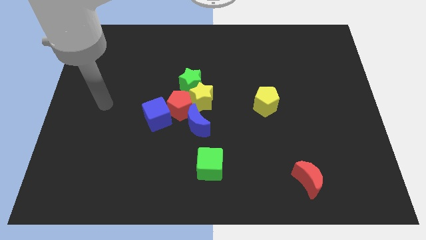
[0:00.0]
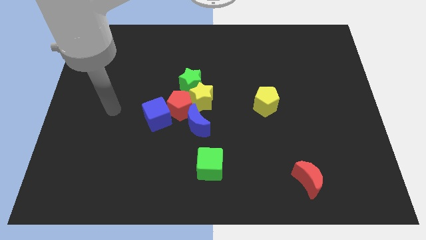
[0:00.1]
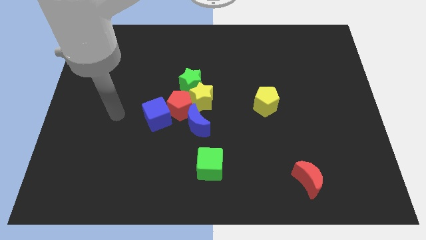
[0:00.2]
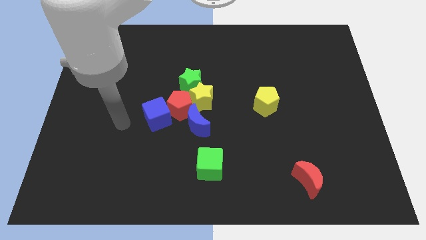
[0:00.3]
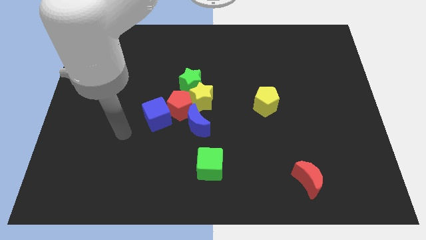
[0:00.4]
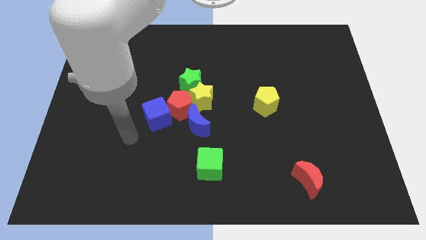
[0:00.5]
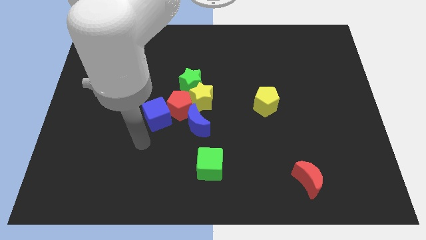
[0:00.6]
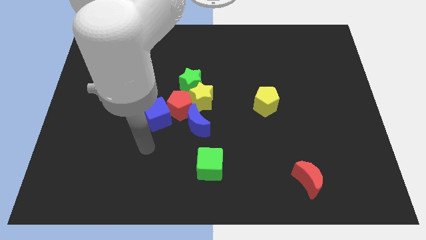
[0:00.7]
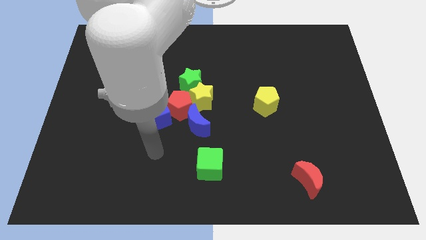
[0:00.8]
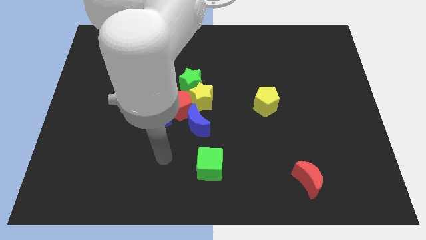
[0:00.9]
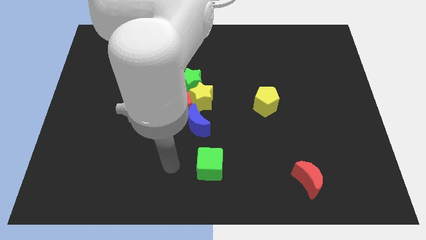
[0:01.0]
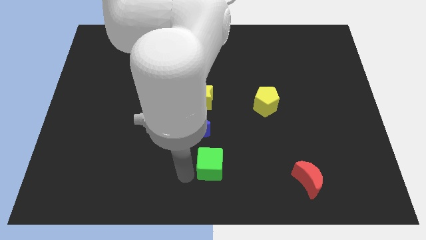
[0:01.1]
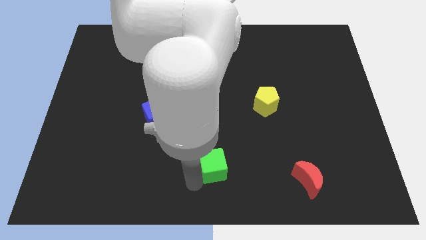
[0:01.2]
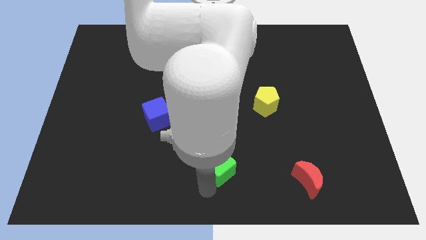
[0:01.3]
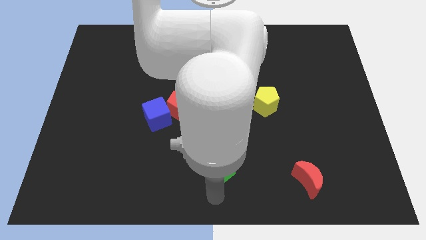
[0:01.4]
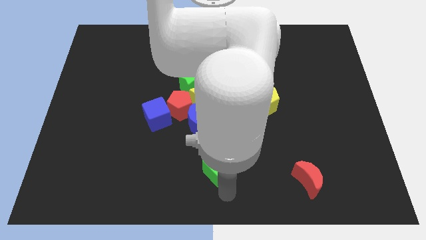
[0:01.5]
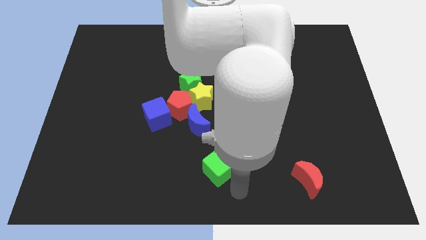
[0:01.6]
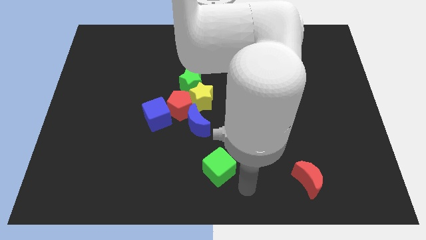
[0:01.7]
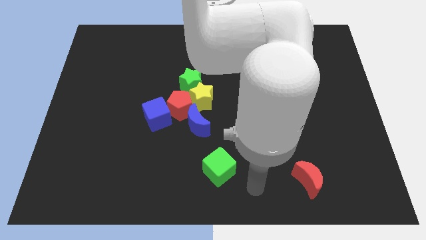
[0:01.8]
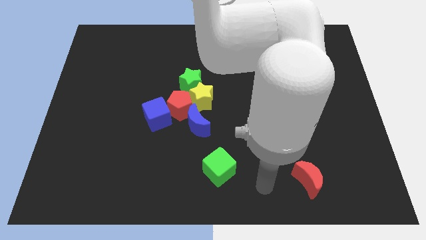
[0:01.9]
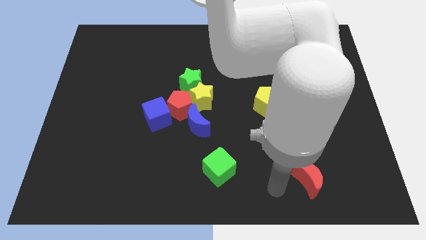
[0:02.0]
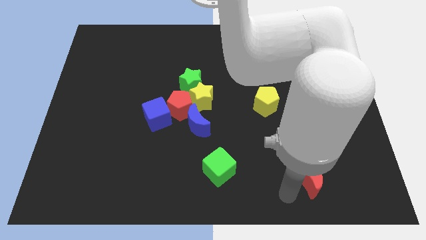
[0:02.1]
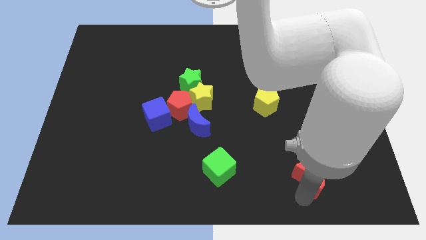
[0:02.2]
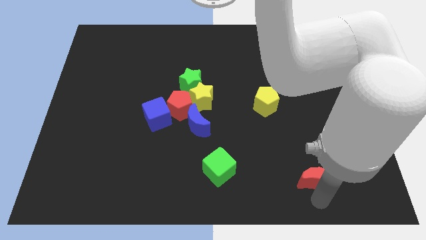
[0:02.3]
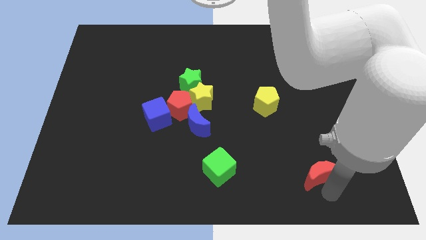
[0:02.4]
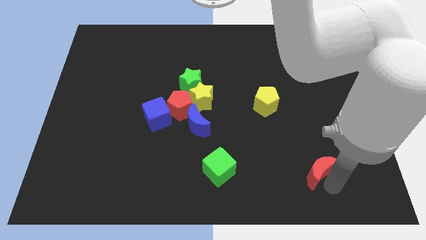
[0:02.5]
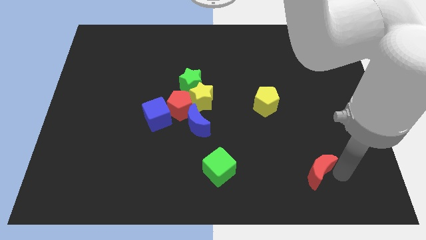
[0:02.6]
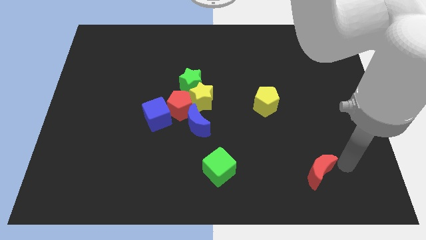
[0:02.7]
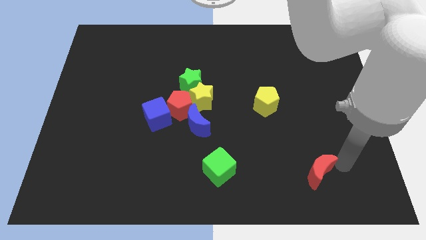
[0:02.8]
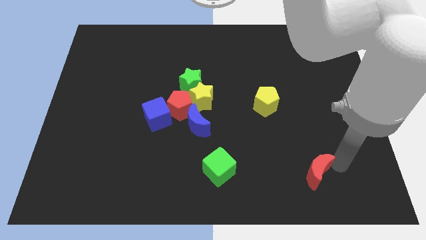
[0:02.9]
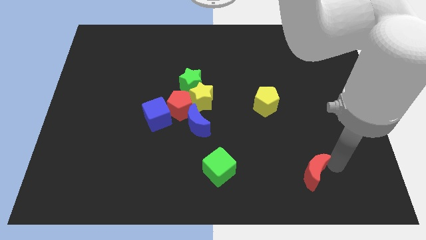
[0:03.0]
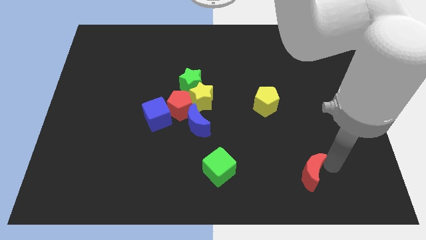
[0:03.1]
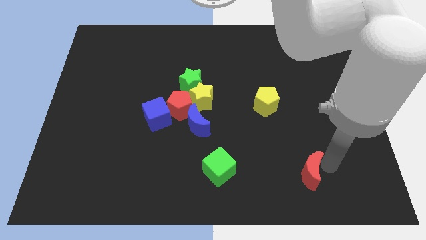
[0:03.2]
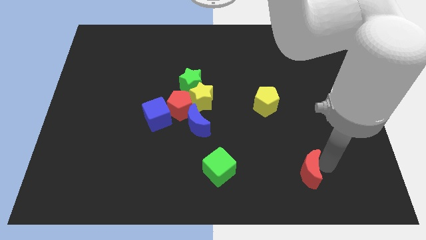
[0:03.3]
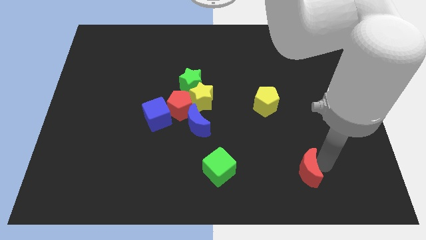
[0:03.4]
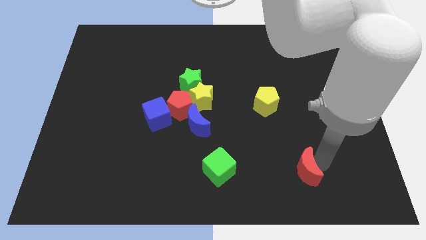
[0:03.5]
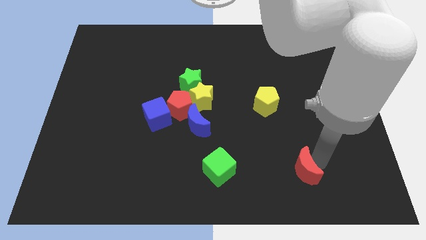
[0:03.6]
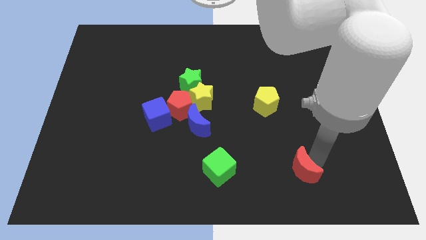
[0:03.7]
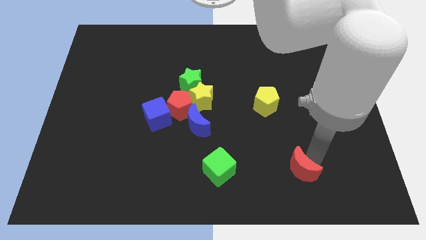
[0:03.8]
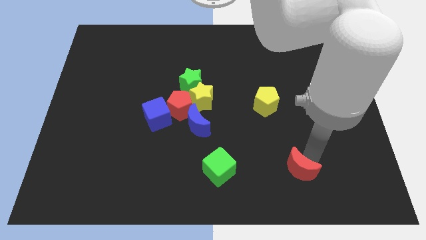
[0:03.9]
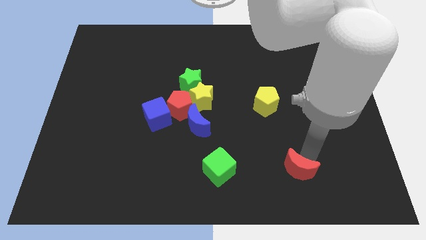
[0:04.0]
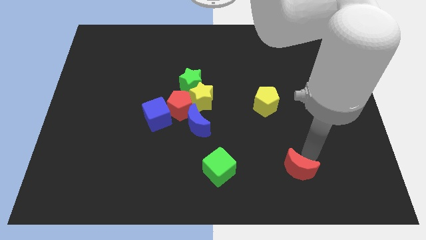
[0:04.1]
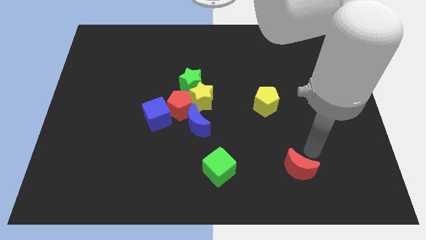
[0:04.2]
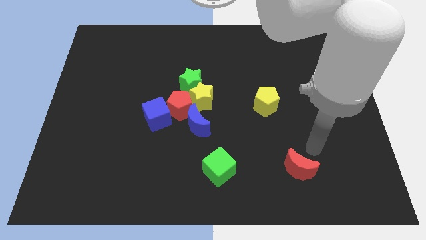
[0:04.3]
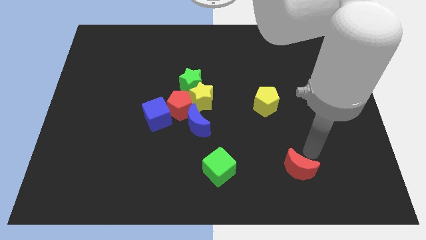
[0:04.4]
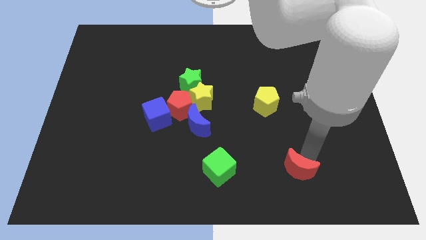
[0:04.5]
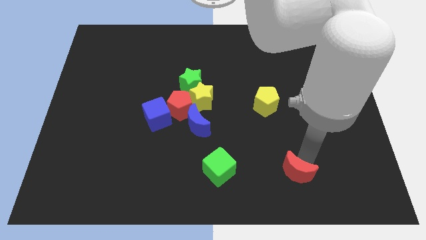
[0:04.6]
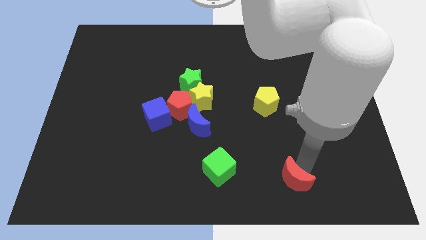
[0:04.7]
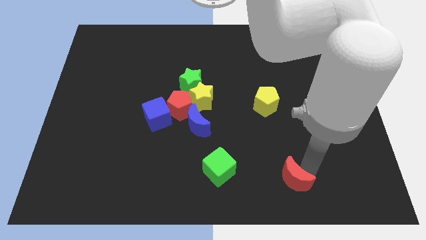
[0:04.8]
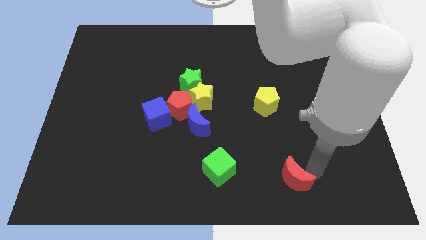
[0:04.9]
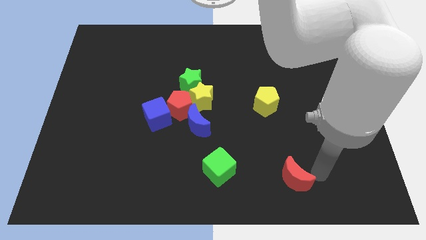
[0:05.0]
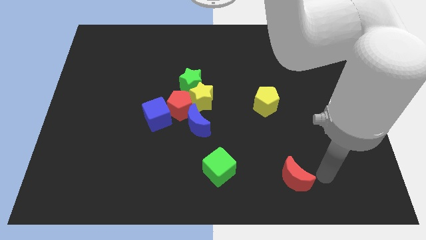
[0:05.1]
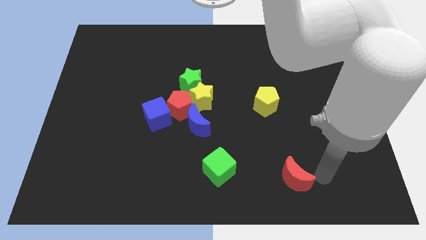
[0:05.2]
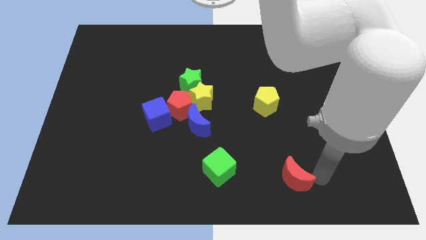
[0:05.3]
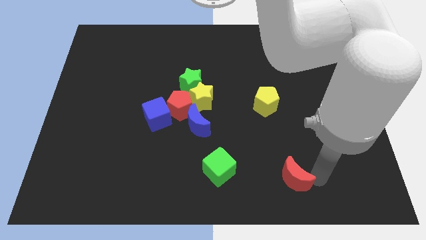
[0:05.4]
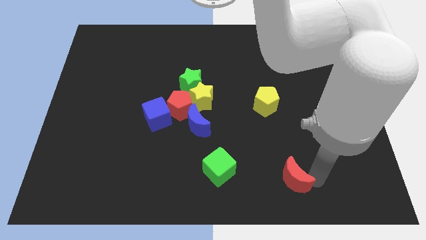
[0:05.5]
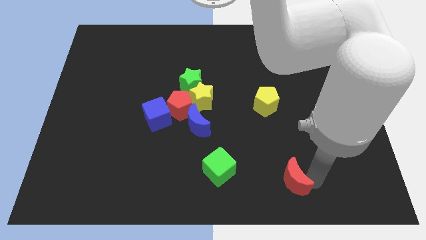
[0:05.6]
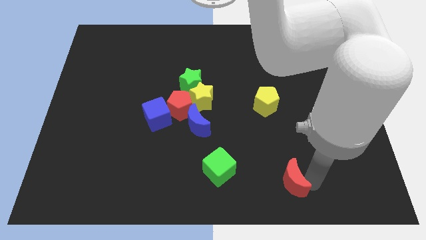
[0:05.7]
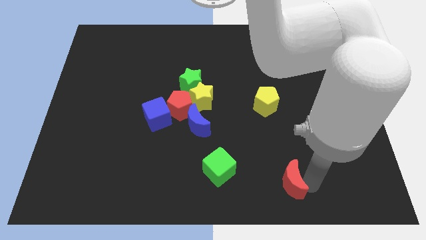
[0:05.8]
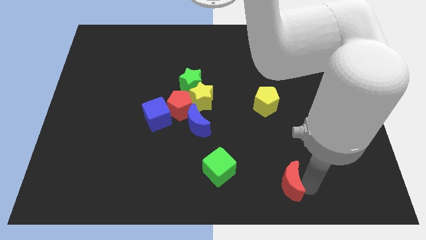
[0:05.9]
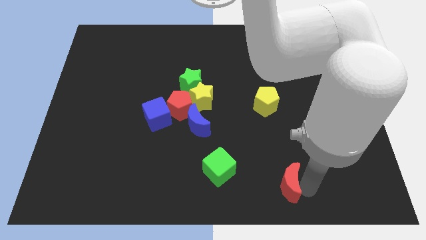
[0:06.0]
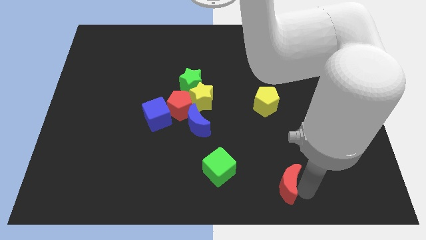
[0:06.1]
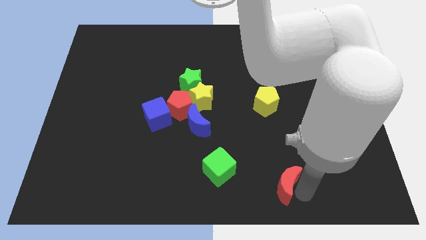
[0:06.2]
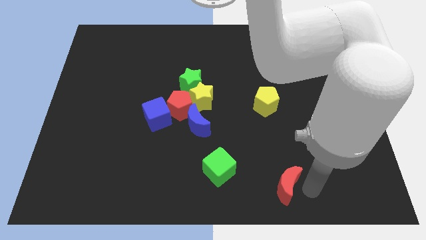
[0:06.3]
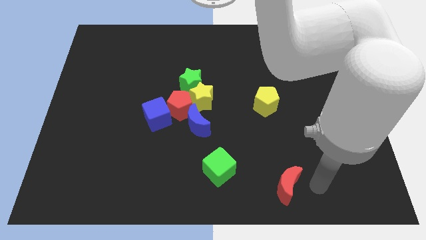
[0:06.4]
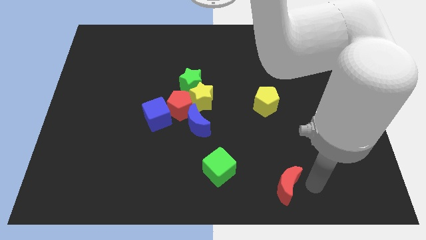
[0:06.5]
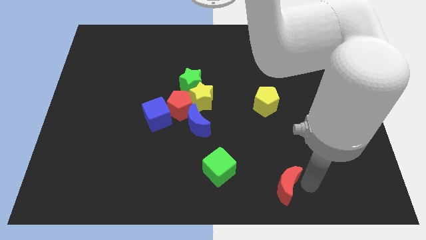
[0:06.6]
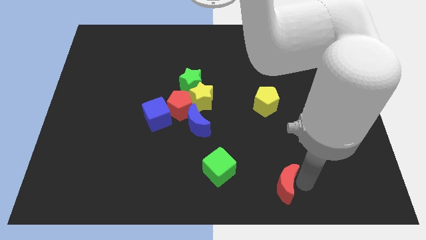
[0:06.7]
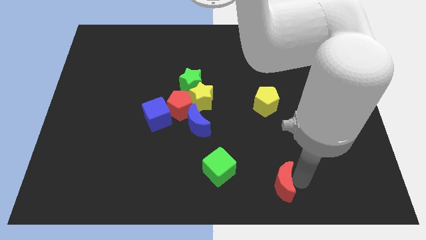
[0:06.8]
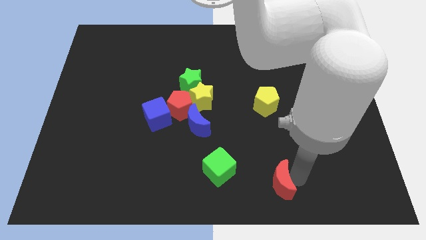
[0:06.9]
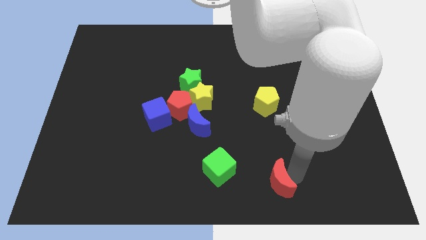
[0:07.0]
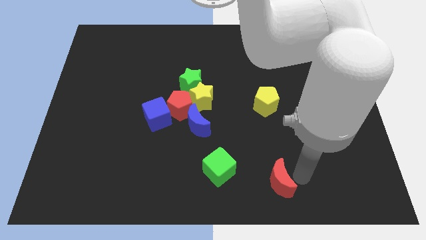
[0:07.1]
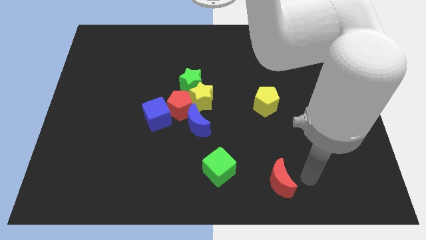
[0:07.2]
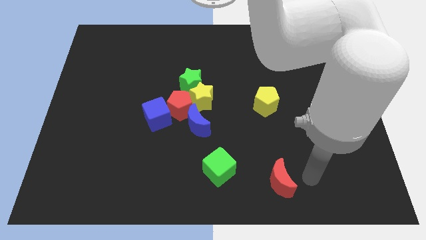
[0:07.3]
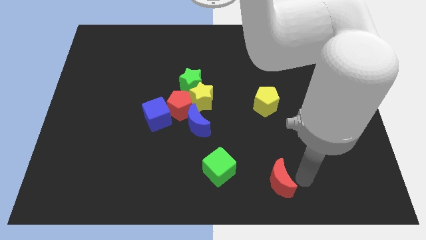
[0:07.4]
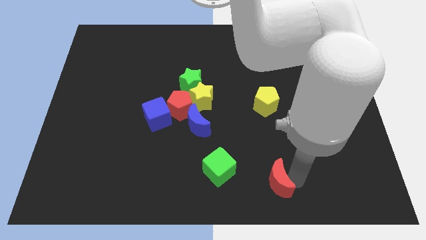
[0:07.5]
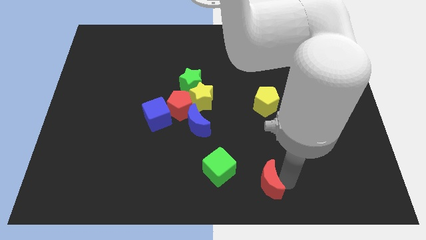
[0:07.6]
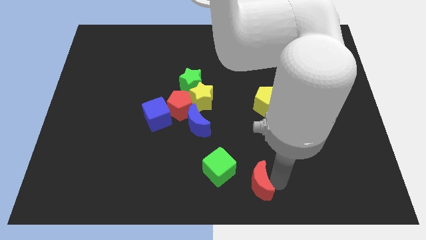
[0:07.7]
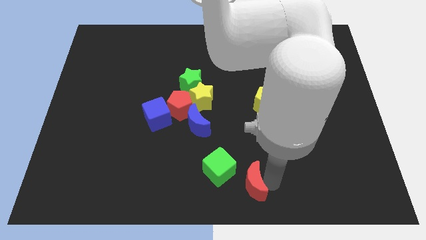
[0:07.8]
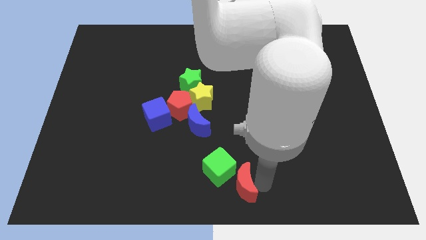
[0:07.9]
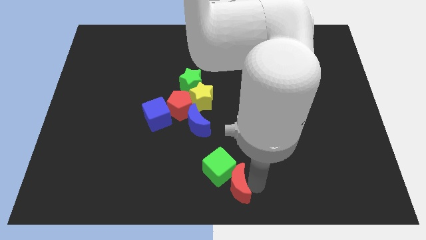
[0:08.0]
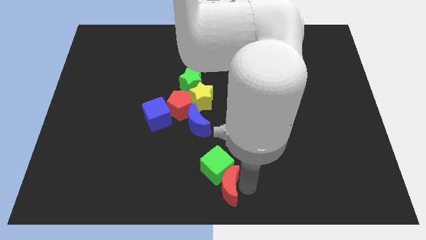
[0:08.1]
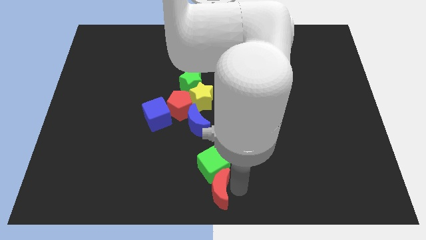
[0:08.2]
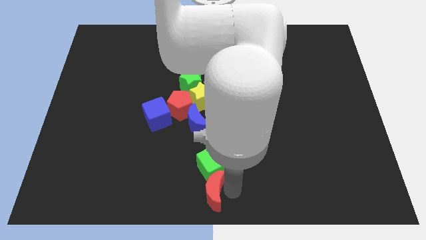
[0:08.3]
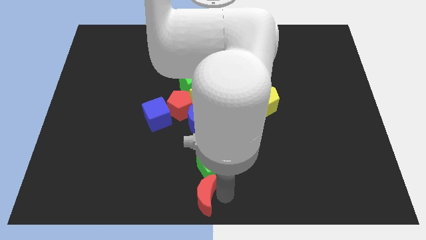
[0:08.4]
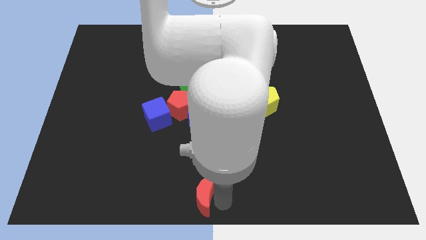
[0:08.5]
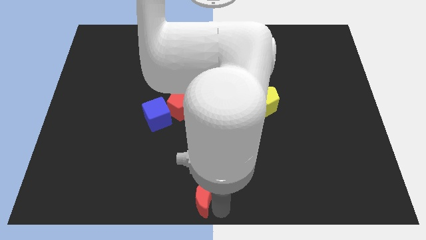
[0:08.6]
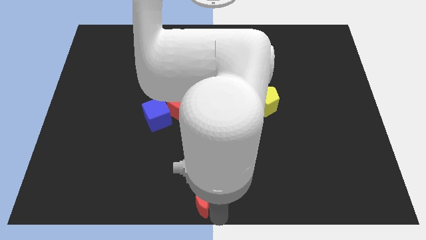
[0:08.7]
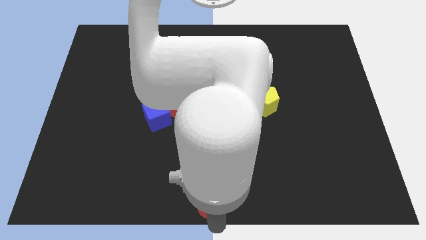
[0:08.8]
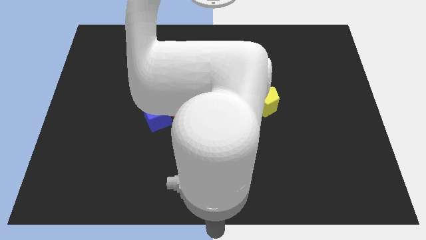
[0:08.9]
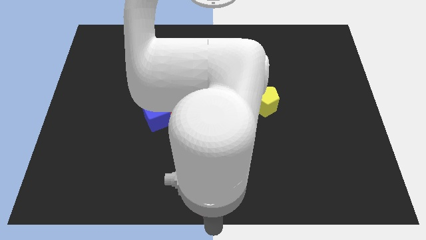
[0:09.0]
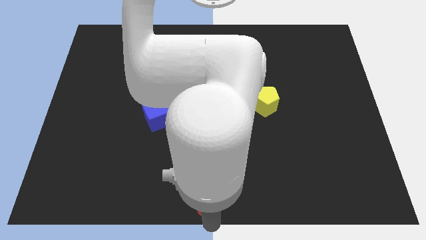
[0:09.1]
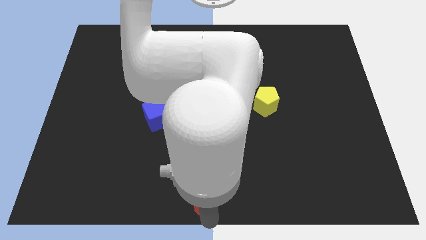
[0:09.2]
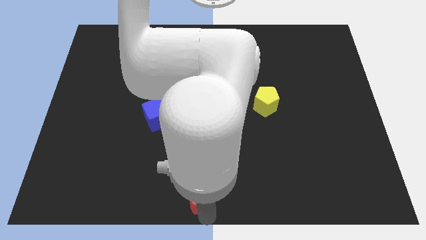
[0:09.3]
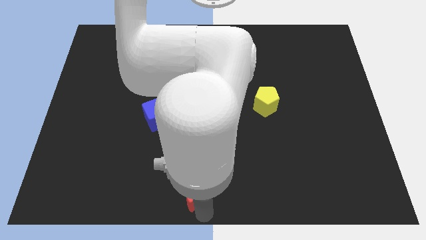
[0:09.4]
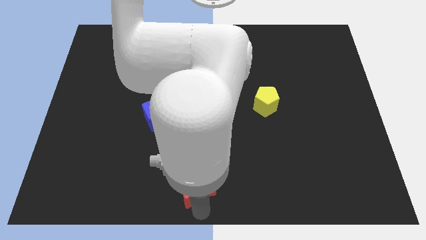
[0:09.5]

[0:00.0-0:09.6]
put the red moon to the bottom of the blue moon
